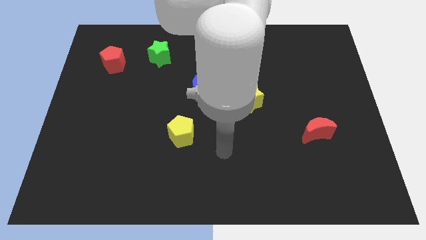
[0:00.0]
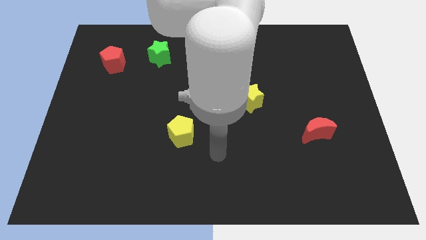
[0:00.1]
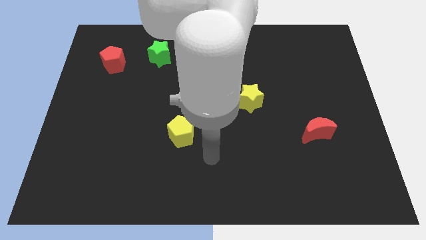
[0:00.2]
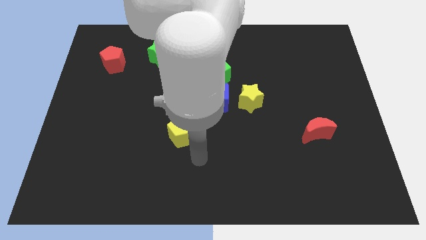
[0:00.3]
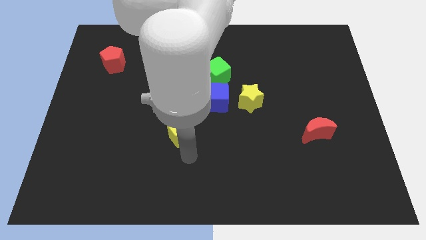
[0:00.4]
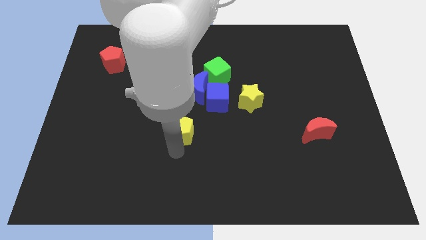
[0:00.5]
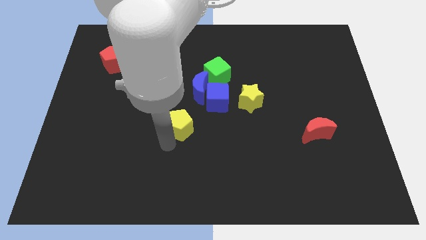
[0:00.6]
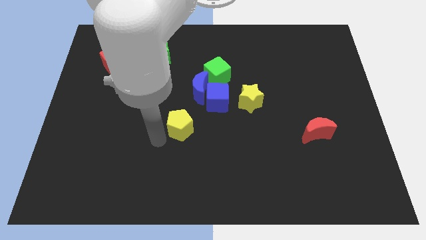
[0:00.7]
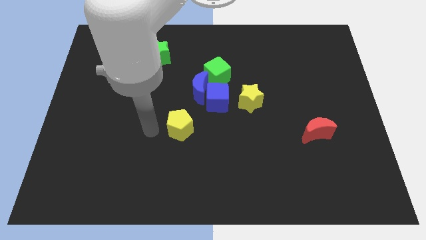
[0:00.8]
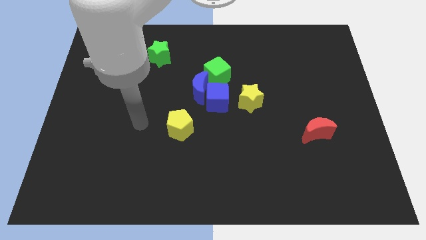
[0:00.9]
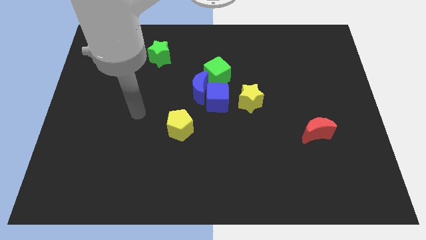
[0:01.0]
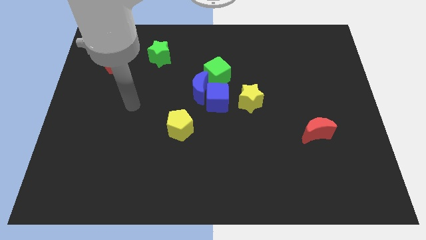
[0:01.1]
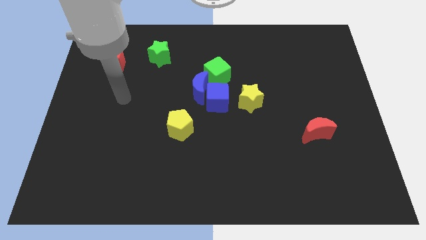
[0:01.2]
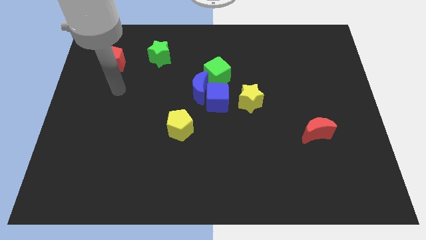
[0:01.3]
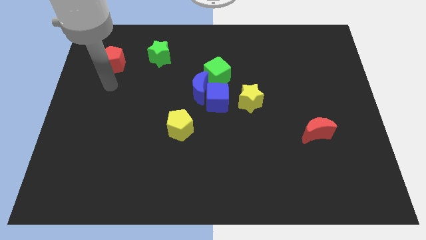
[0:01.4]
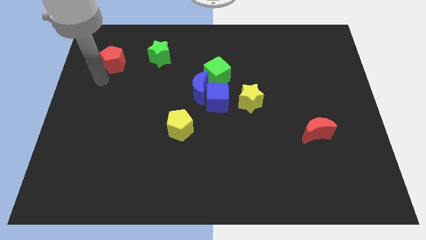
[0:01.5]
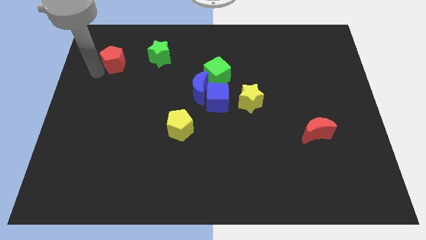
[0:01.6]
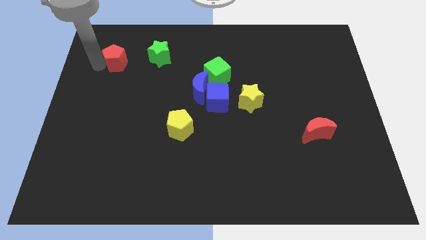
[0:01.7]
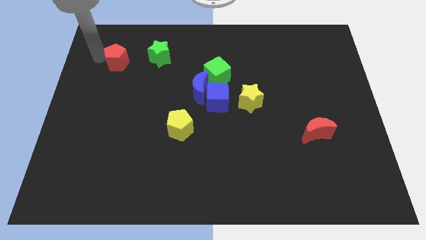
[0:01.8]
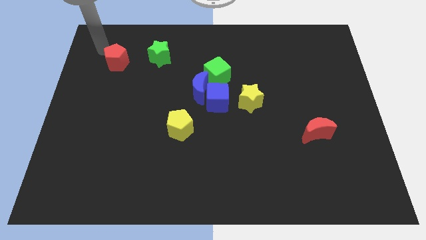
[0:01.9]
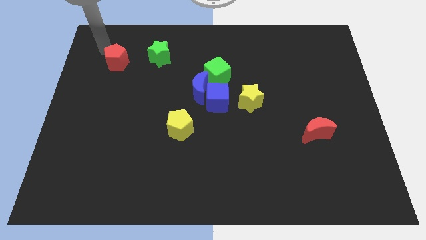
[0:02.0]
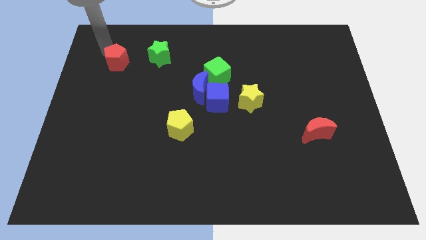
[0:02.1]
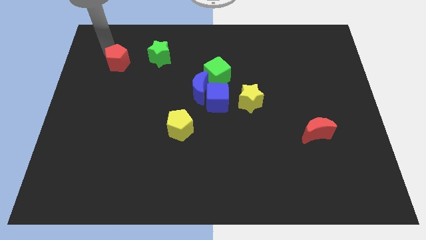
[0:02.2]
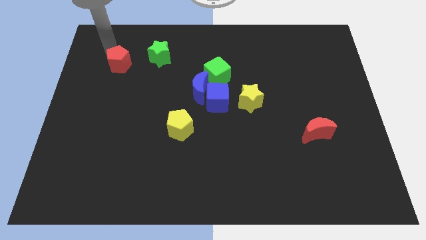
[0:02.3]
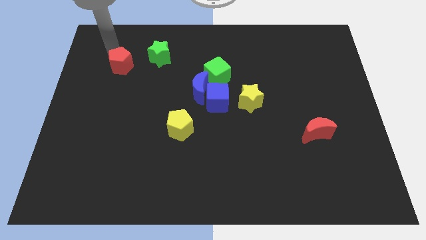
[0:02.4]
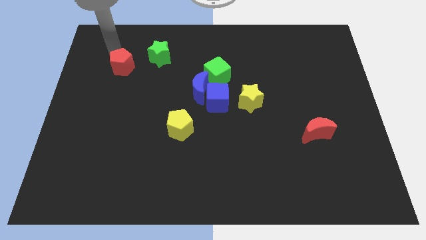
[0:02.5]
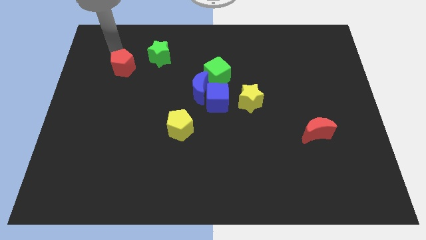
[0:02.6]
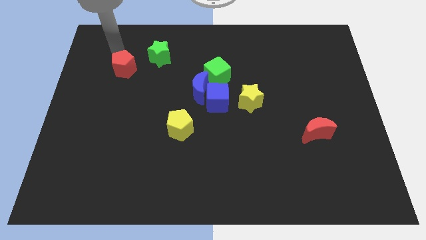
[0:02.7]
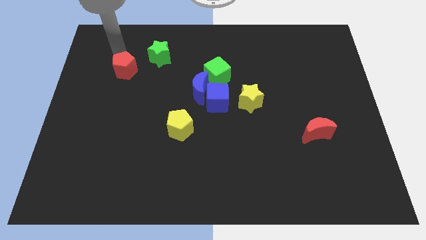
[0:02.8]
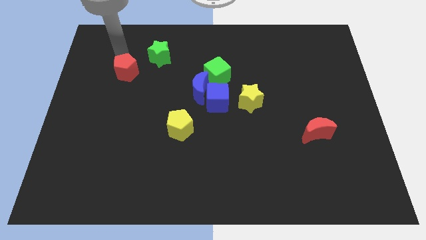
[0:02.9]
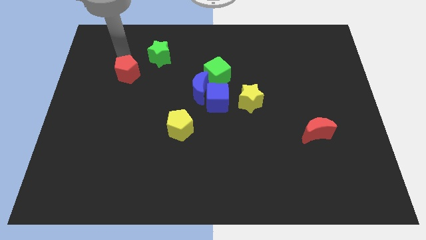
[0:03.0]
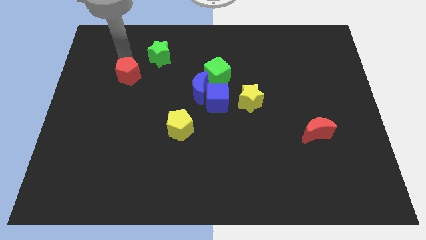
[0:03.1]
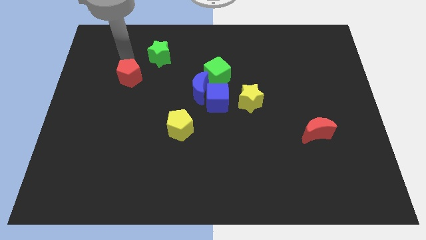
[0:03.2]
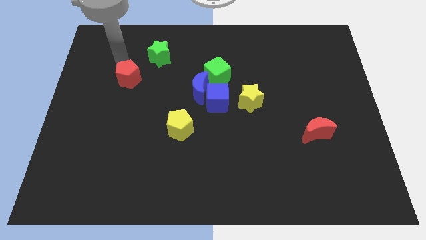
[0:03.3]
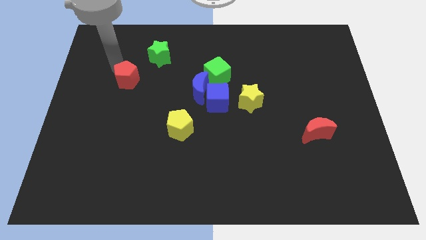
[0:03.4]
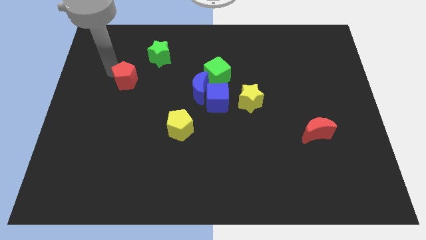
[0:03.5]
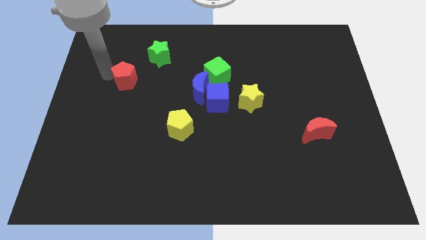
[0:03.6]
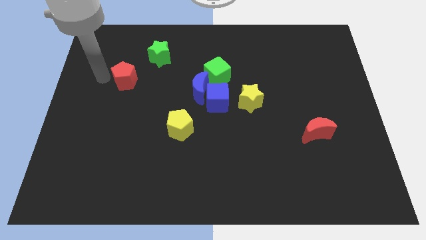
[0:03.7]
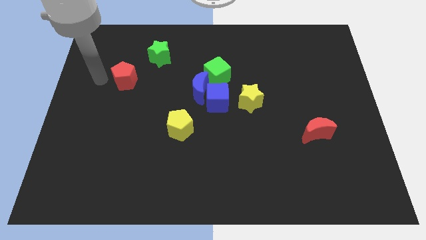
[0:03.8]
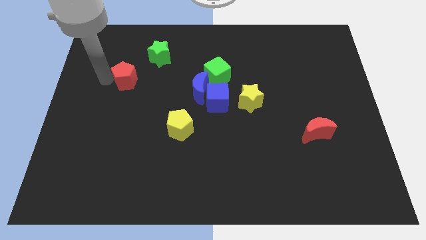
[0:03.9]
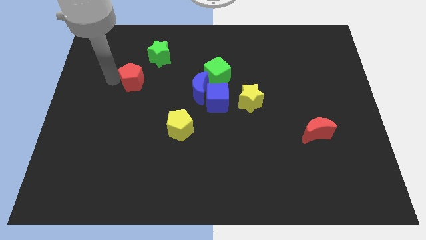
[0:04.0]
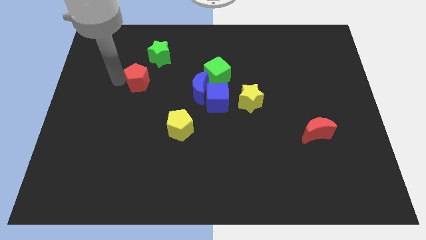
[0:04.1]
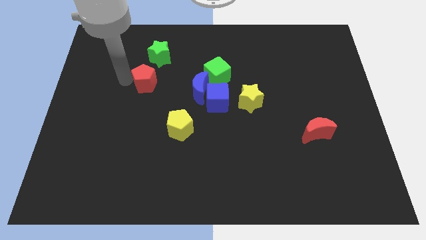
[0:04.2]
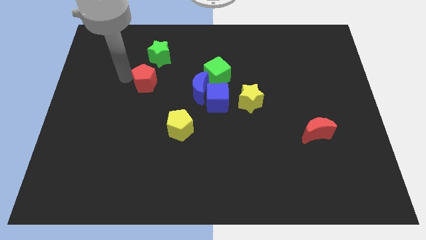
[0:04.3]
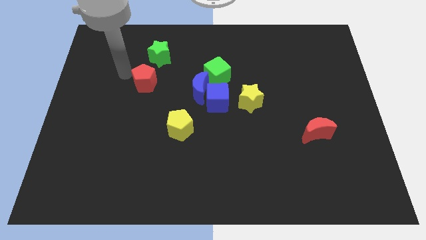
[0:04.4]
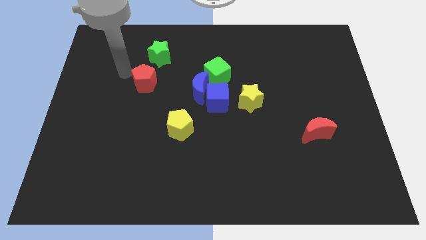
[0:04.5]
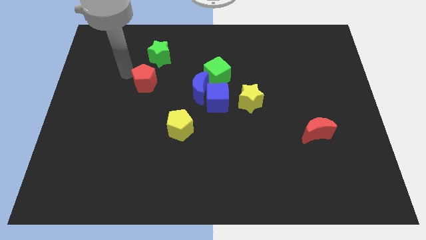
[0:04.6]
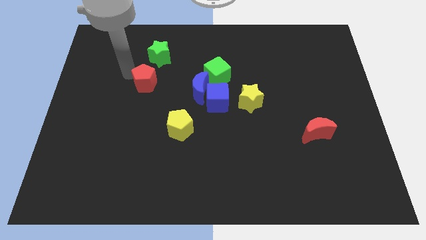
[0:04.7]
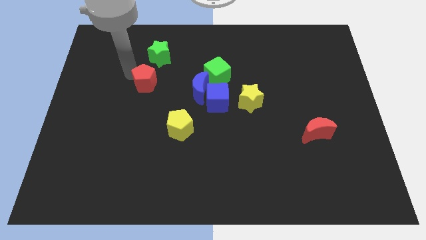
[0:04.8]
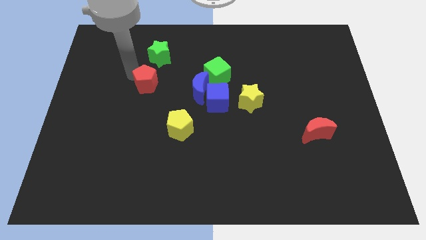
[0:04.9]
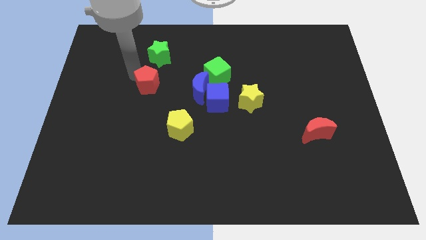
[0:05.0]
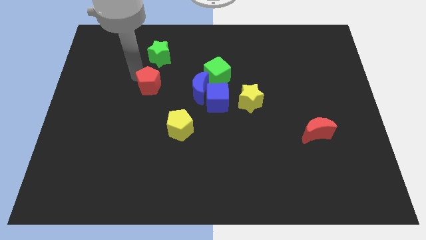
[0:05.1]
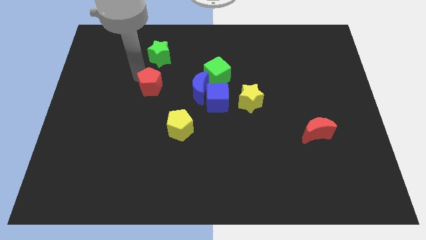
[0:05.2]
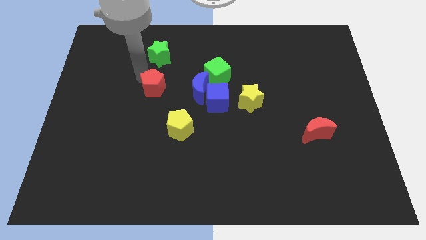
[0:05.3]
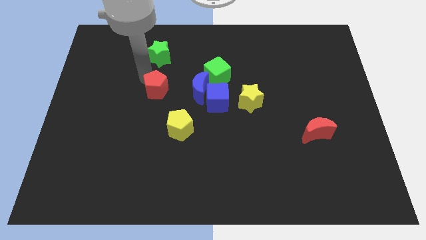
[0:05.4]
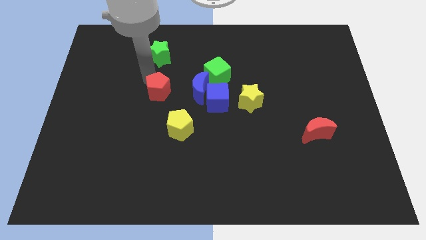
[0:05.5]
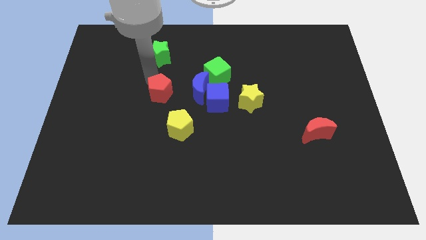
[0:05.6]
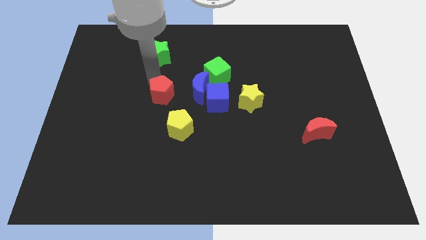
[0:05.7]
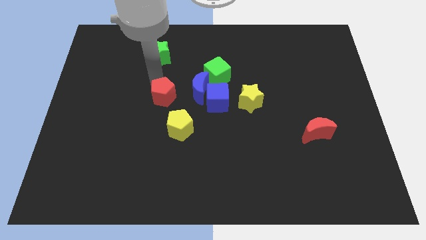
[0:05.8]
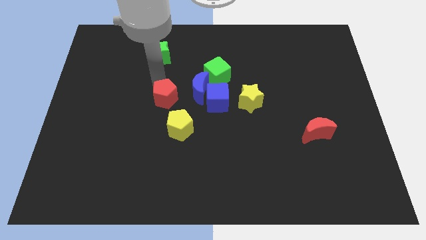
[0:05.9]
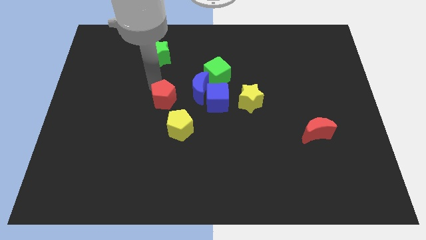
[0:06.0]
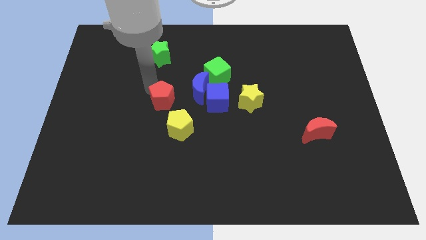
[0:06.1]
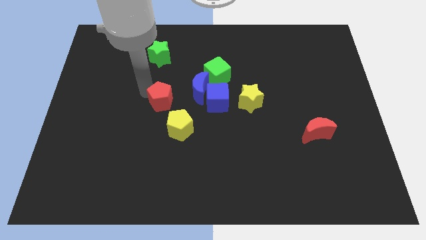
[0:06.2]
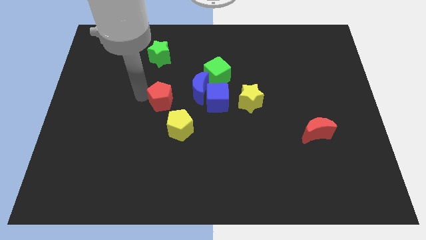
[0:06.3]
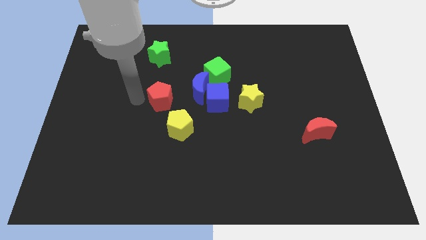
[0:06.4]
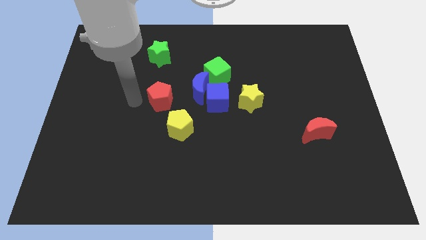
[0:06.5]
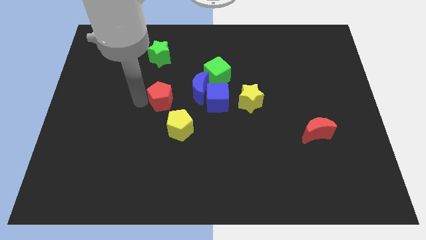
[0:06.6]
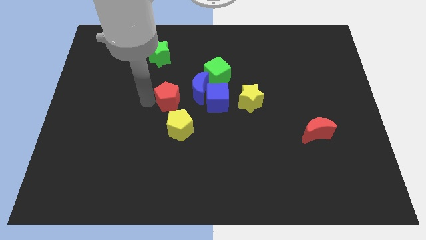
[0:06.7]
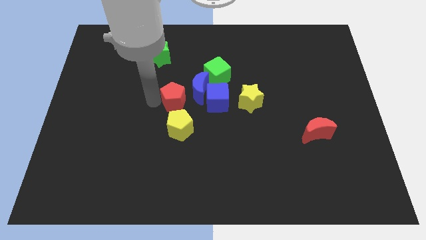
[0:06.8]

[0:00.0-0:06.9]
push the red pentagon diagonally down and to the right

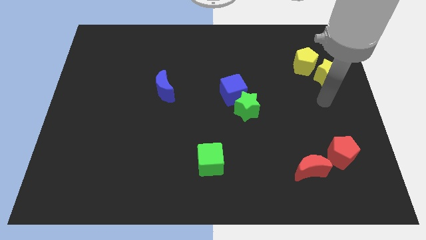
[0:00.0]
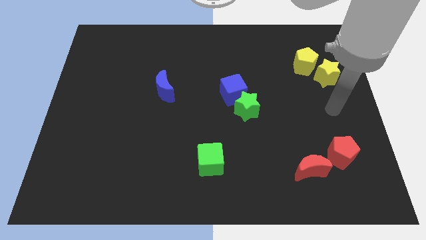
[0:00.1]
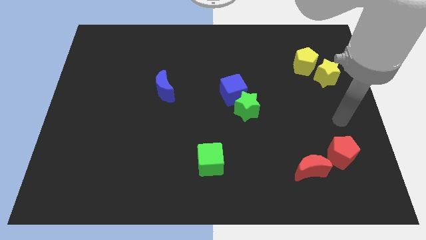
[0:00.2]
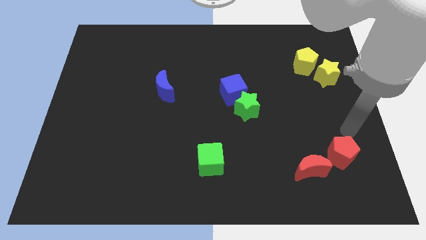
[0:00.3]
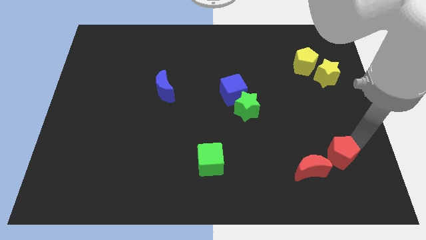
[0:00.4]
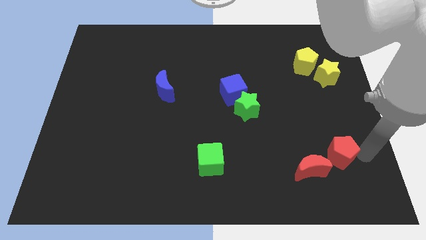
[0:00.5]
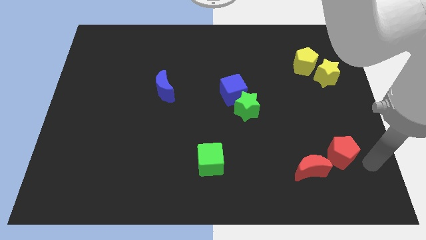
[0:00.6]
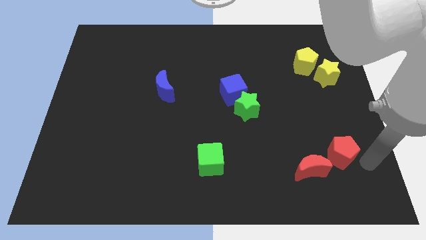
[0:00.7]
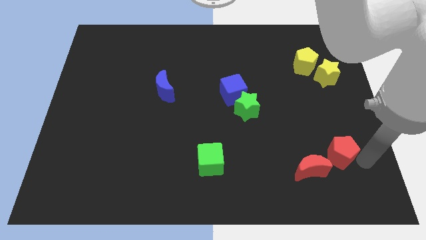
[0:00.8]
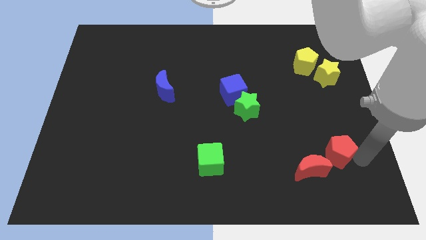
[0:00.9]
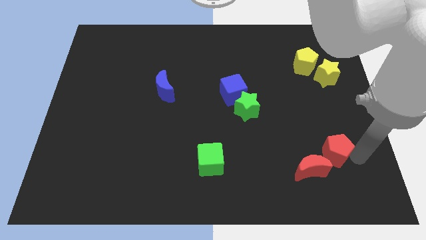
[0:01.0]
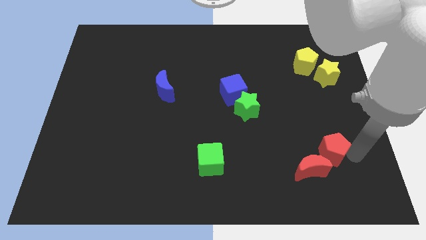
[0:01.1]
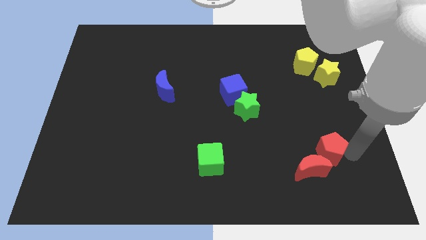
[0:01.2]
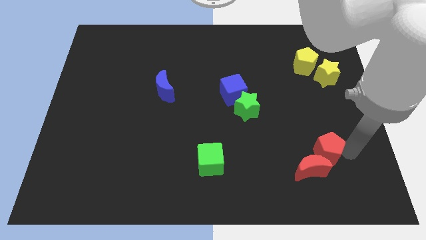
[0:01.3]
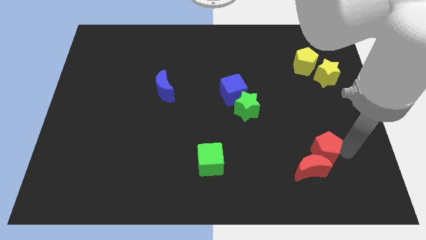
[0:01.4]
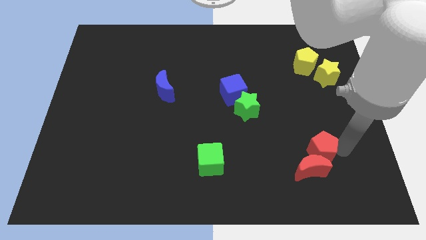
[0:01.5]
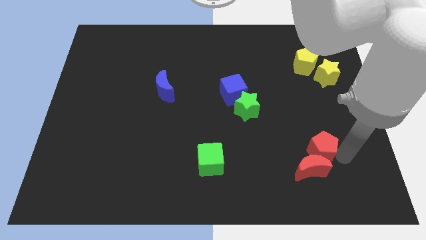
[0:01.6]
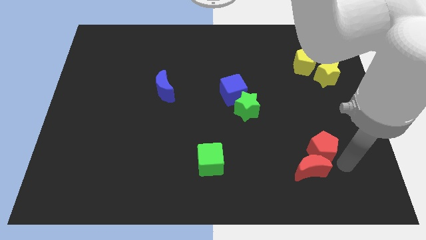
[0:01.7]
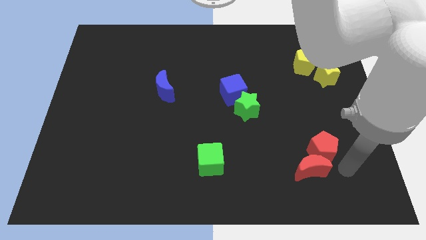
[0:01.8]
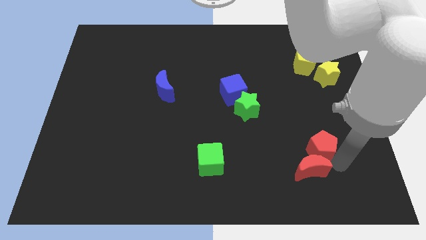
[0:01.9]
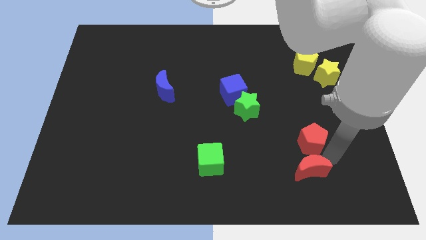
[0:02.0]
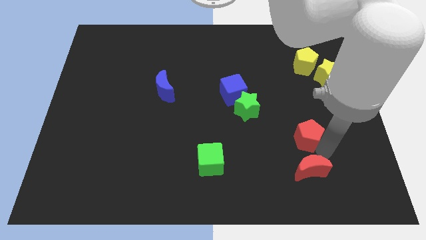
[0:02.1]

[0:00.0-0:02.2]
push the red pentagon a bit upwards and to the left diagonally
